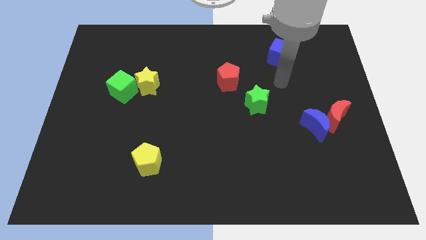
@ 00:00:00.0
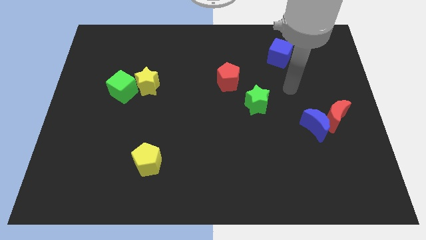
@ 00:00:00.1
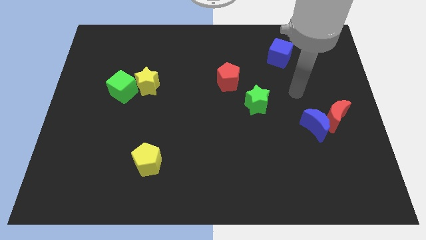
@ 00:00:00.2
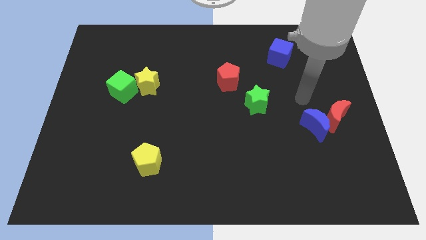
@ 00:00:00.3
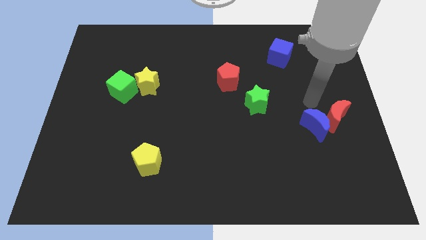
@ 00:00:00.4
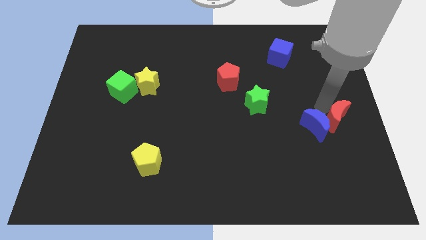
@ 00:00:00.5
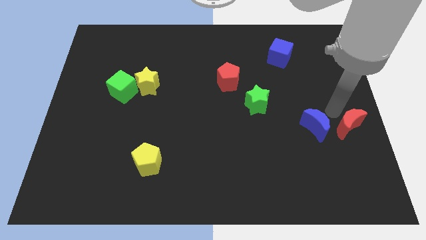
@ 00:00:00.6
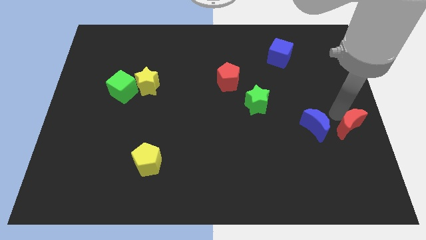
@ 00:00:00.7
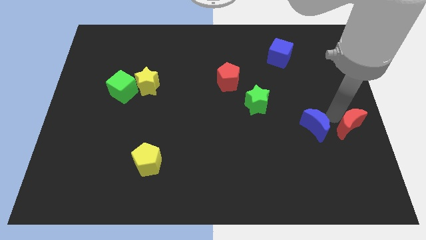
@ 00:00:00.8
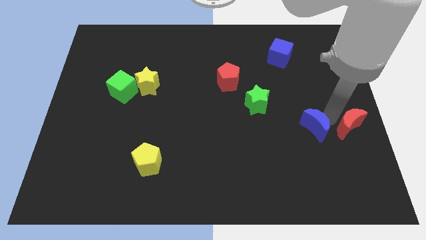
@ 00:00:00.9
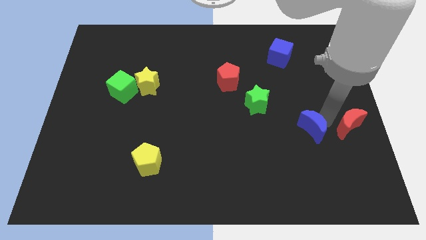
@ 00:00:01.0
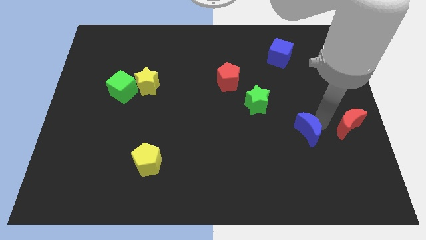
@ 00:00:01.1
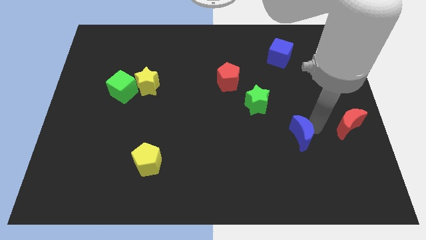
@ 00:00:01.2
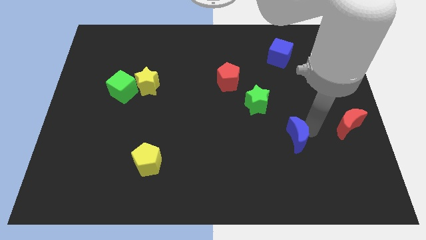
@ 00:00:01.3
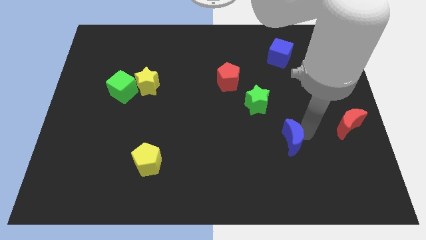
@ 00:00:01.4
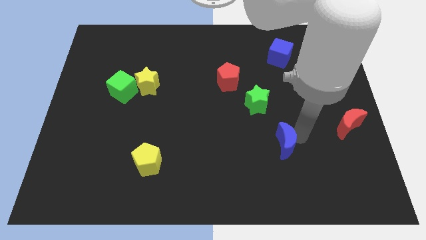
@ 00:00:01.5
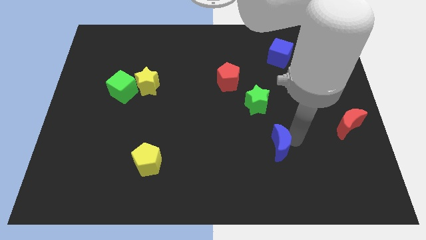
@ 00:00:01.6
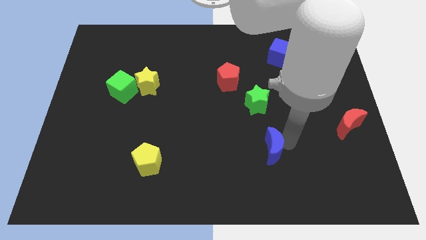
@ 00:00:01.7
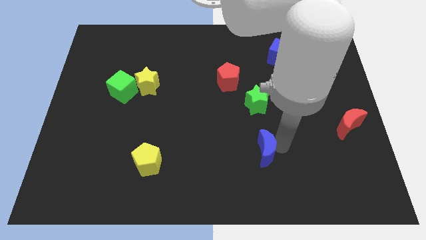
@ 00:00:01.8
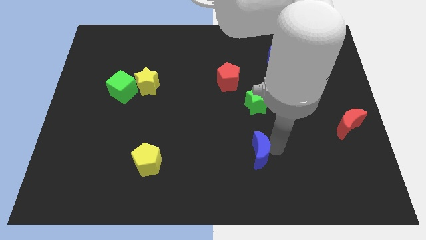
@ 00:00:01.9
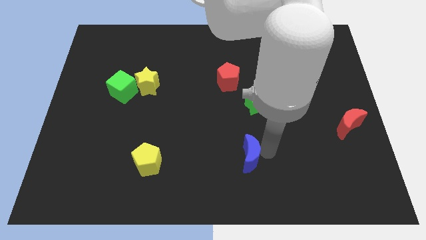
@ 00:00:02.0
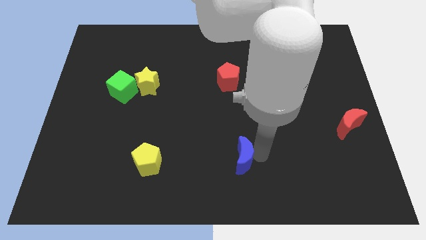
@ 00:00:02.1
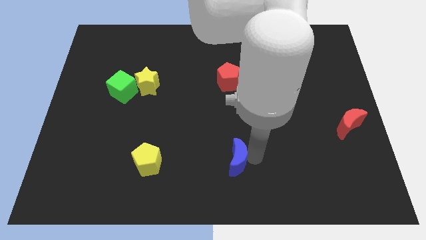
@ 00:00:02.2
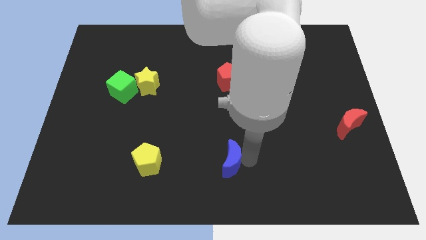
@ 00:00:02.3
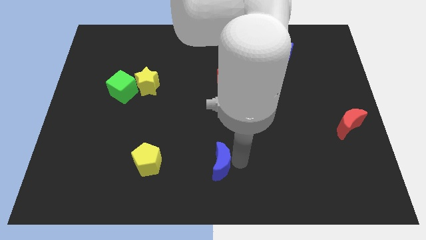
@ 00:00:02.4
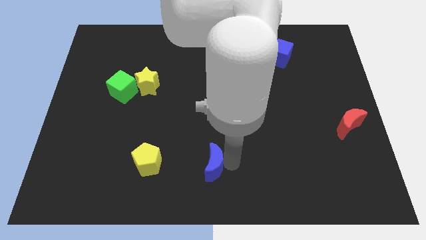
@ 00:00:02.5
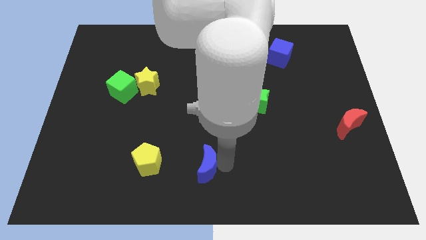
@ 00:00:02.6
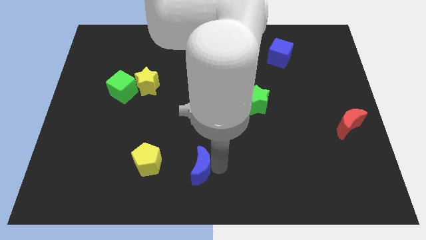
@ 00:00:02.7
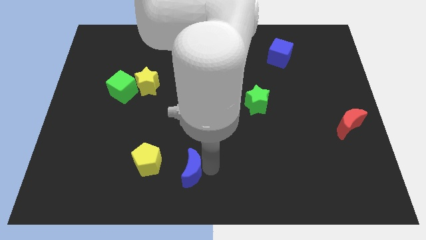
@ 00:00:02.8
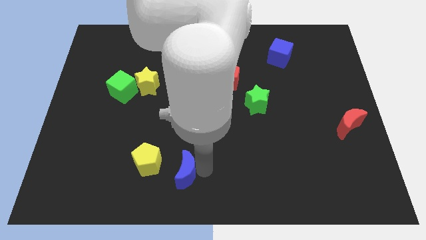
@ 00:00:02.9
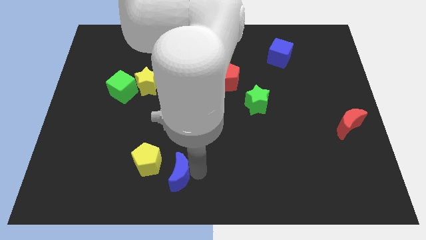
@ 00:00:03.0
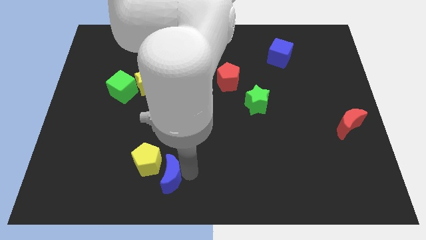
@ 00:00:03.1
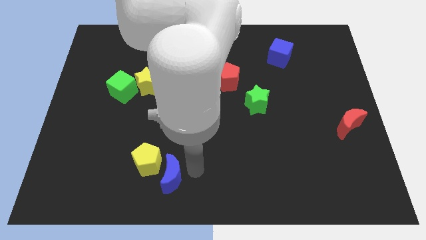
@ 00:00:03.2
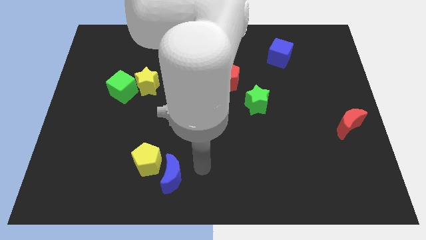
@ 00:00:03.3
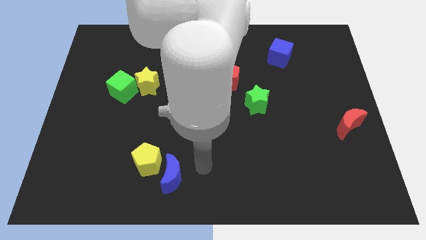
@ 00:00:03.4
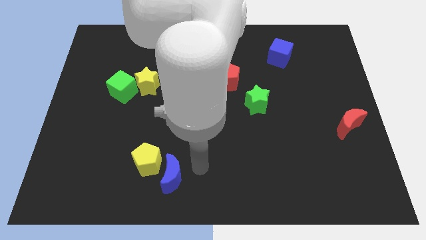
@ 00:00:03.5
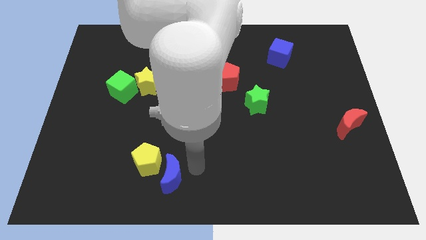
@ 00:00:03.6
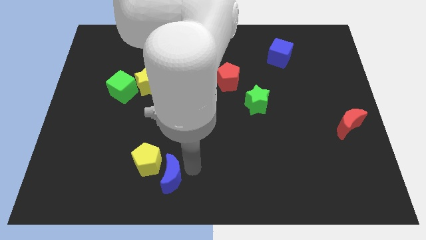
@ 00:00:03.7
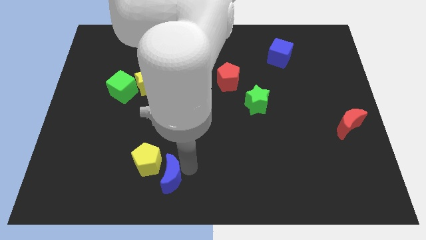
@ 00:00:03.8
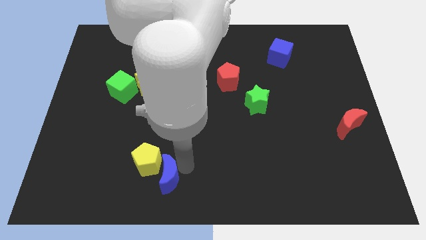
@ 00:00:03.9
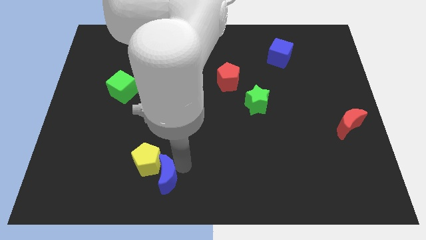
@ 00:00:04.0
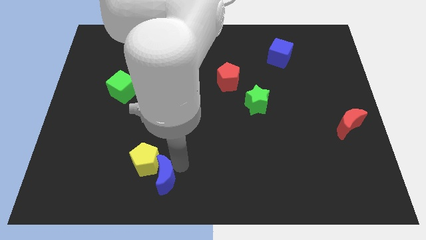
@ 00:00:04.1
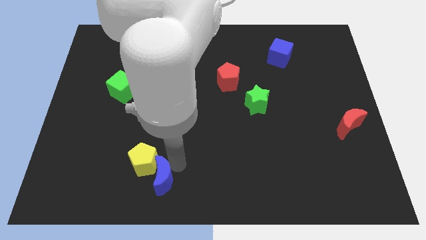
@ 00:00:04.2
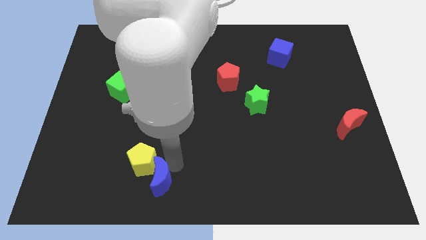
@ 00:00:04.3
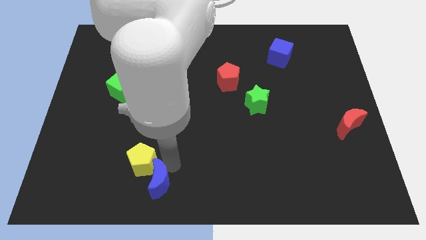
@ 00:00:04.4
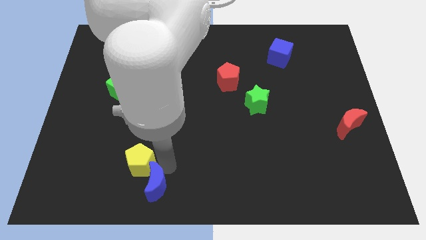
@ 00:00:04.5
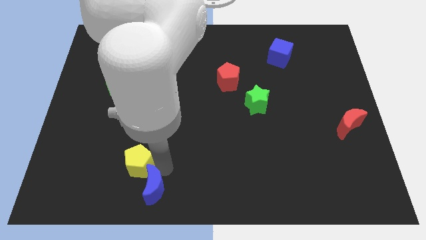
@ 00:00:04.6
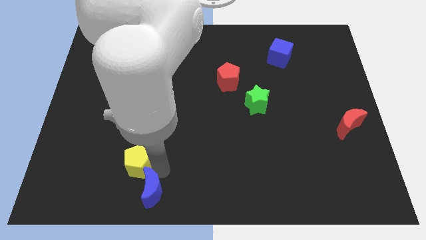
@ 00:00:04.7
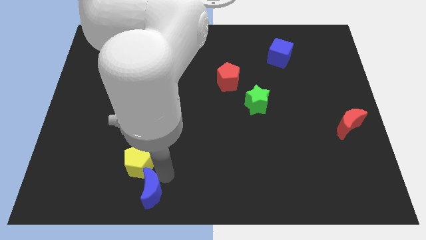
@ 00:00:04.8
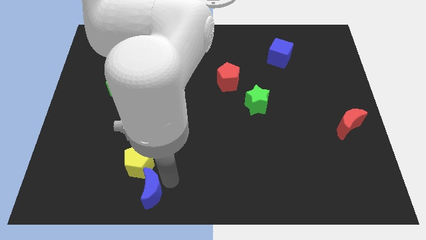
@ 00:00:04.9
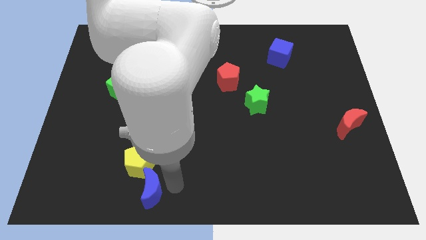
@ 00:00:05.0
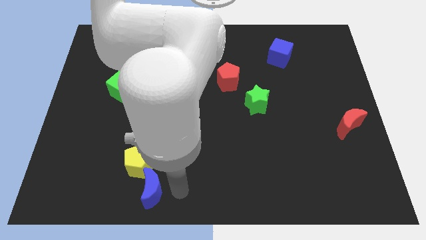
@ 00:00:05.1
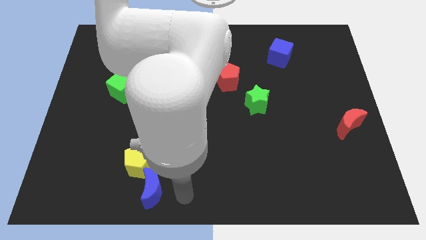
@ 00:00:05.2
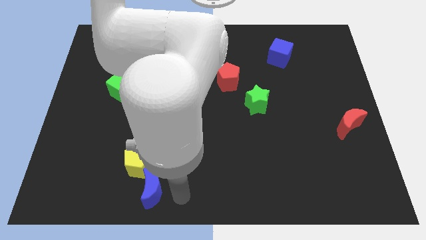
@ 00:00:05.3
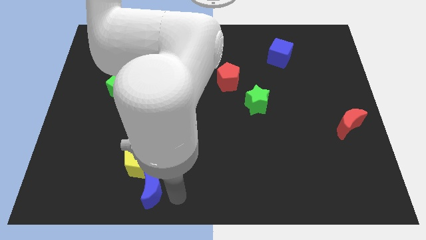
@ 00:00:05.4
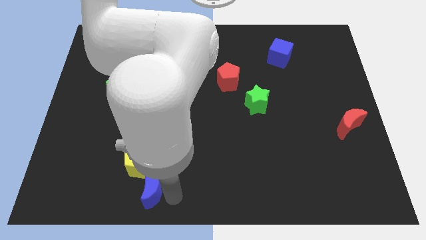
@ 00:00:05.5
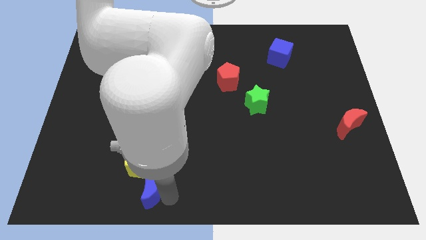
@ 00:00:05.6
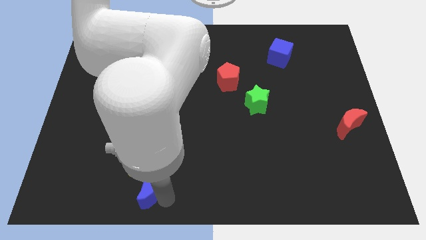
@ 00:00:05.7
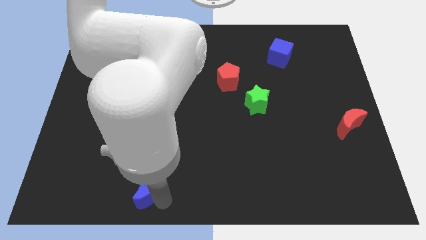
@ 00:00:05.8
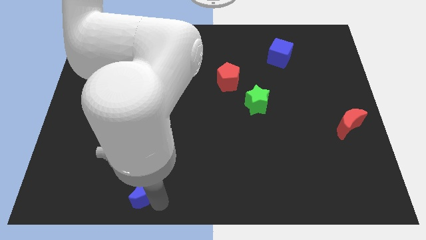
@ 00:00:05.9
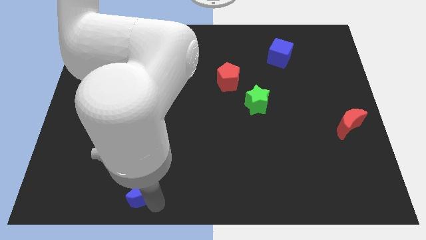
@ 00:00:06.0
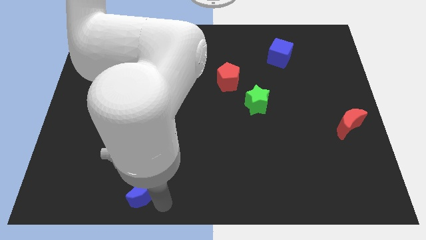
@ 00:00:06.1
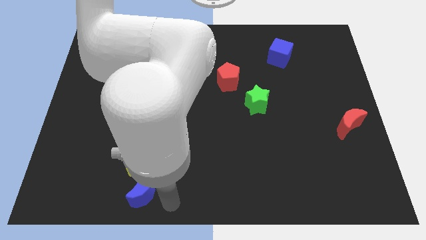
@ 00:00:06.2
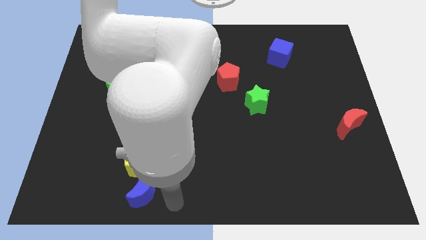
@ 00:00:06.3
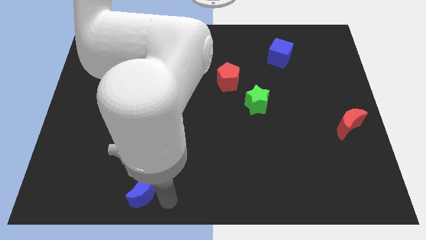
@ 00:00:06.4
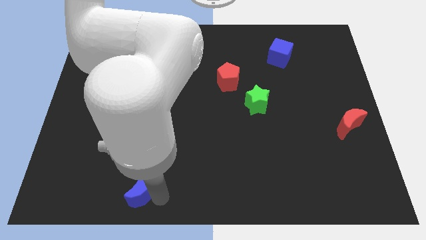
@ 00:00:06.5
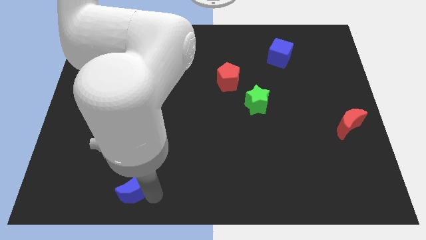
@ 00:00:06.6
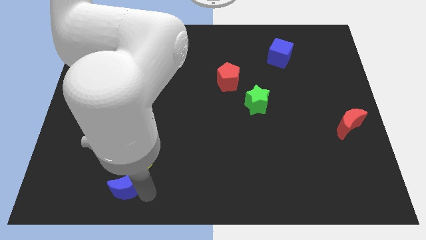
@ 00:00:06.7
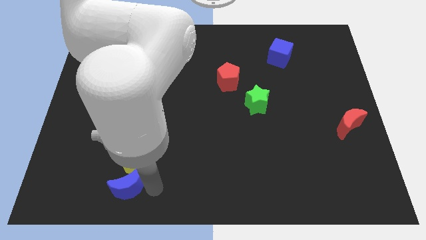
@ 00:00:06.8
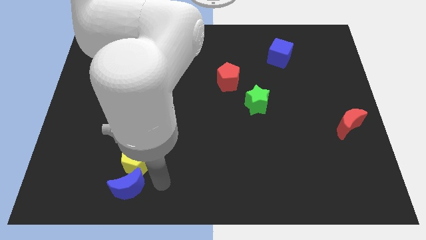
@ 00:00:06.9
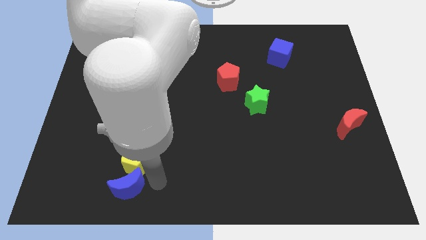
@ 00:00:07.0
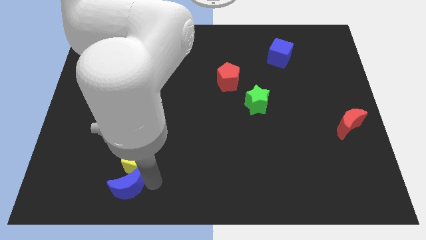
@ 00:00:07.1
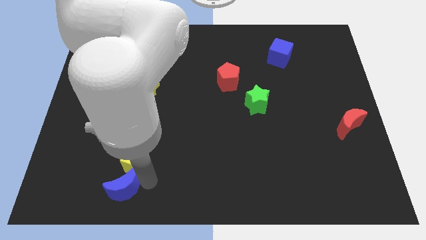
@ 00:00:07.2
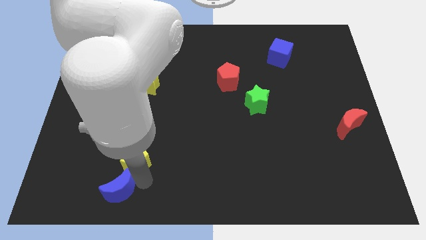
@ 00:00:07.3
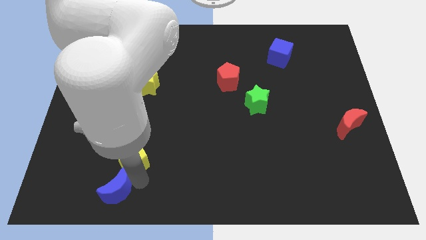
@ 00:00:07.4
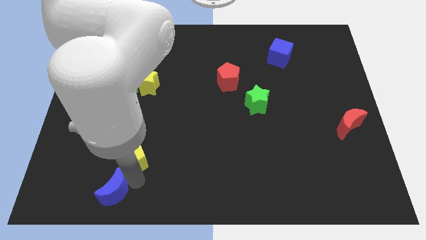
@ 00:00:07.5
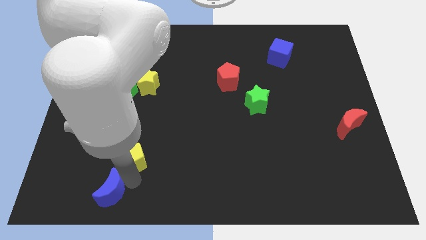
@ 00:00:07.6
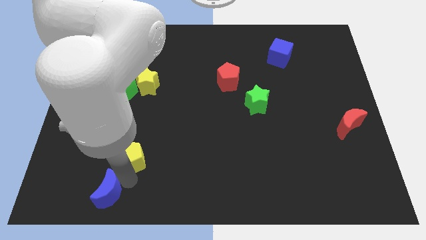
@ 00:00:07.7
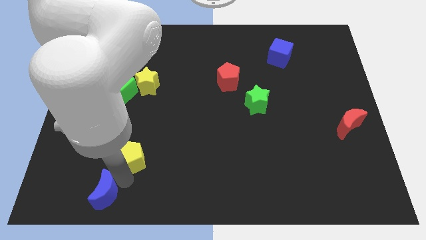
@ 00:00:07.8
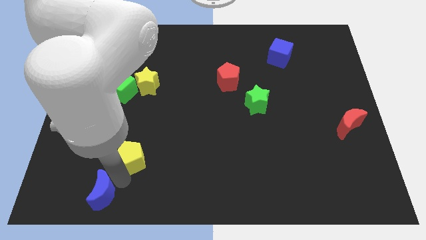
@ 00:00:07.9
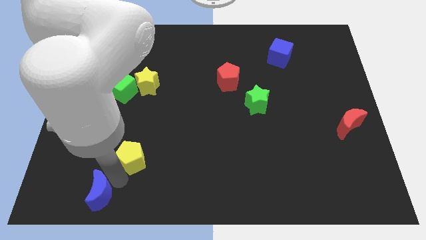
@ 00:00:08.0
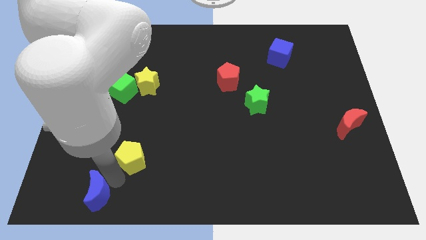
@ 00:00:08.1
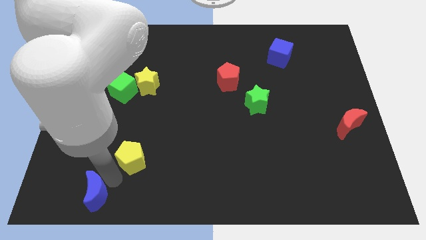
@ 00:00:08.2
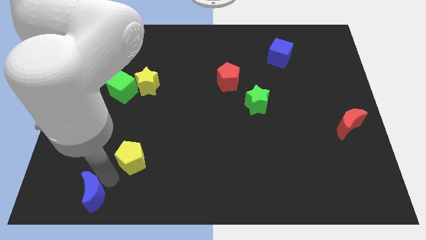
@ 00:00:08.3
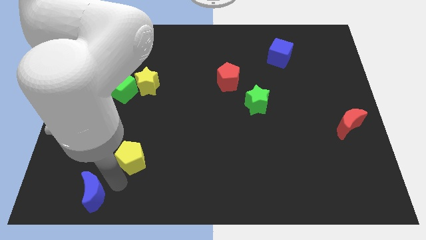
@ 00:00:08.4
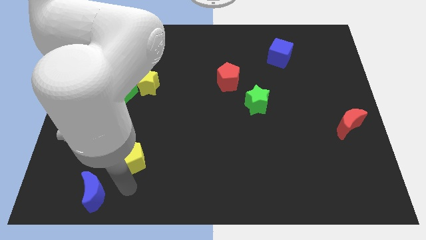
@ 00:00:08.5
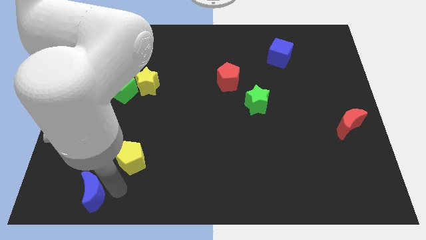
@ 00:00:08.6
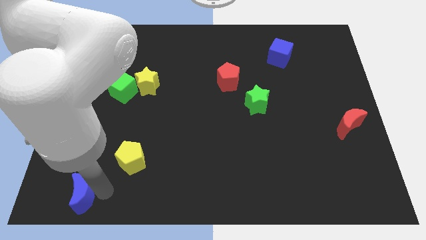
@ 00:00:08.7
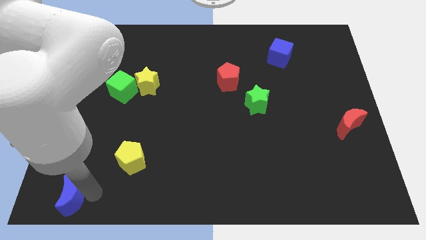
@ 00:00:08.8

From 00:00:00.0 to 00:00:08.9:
put the blue moon to the lower left corner
